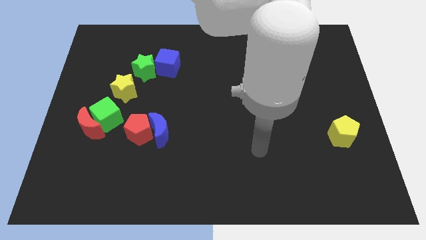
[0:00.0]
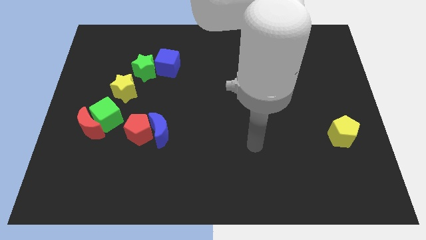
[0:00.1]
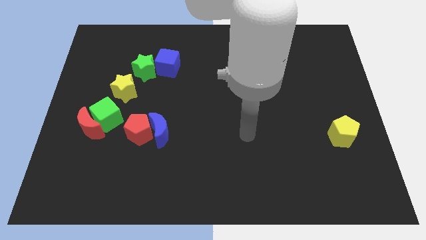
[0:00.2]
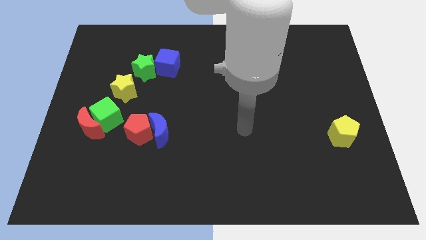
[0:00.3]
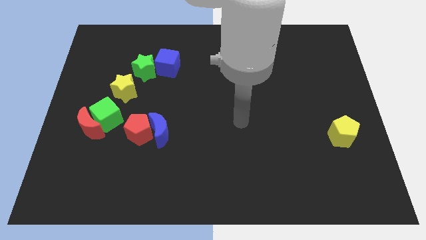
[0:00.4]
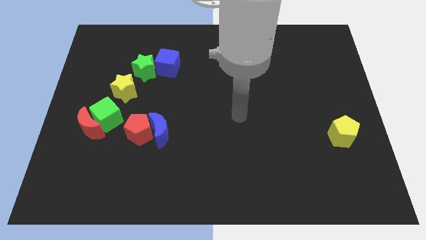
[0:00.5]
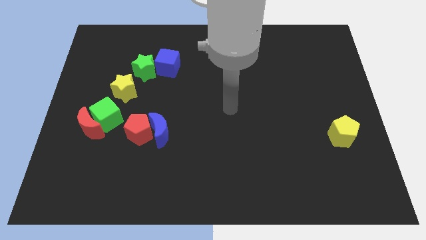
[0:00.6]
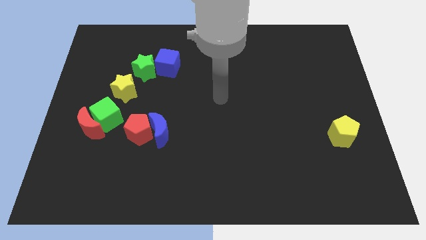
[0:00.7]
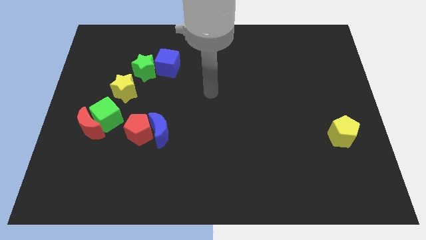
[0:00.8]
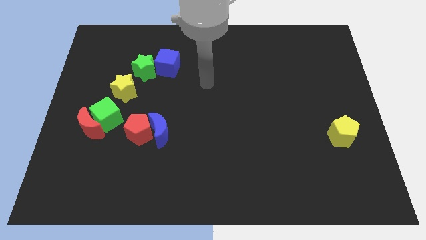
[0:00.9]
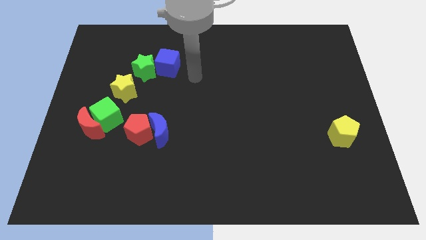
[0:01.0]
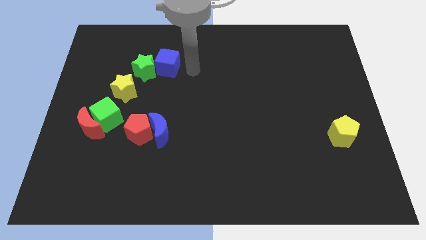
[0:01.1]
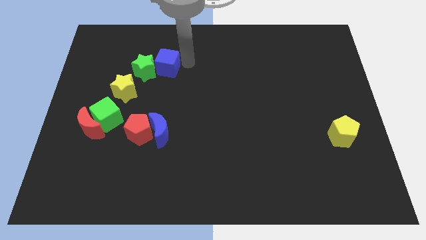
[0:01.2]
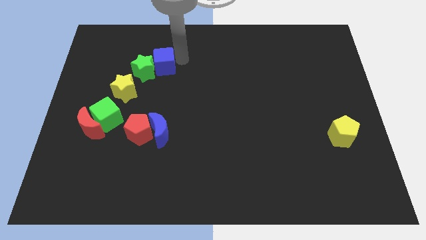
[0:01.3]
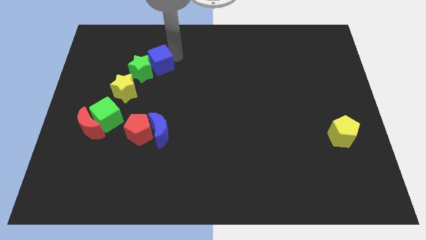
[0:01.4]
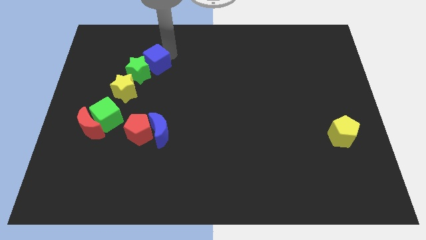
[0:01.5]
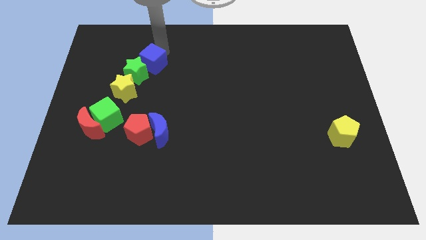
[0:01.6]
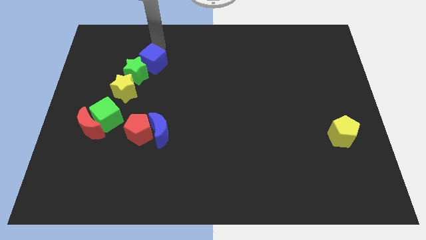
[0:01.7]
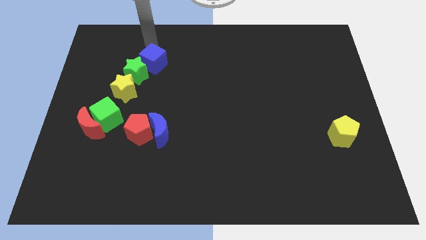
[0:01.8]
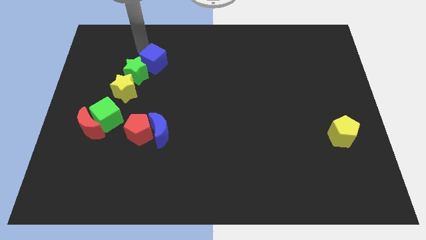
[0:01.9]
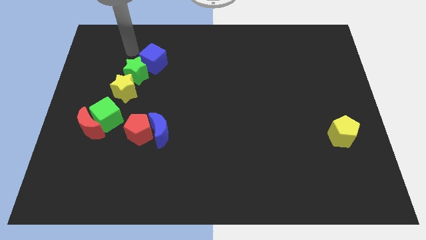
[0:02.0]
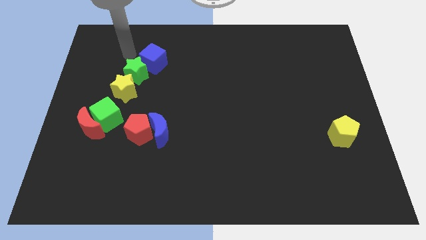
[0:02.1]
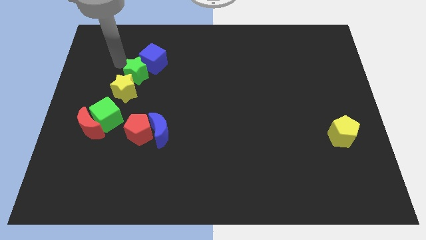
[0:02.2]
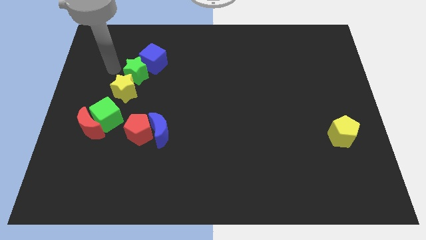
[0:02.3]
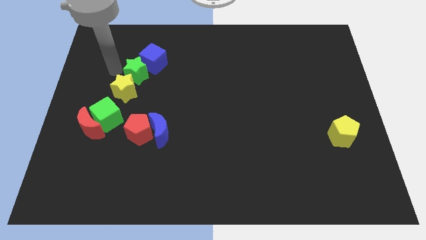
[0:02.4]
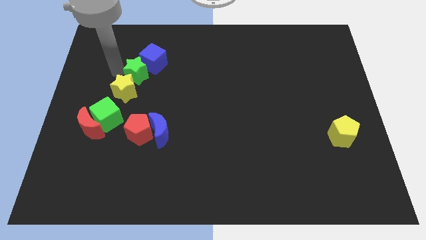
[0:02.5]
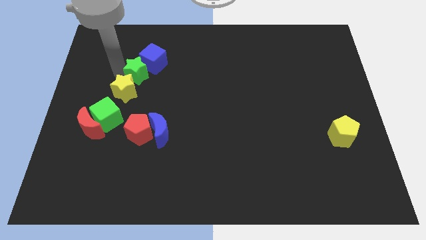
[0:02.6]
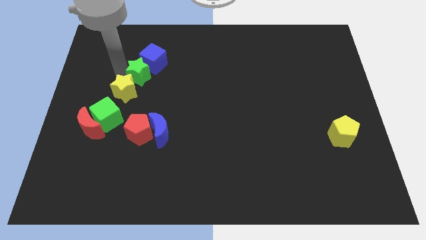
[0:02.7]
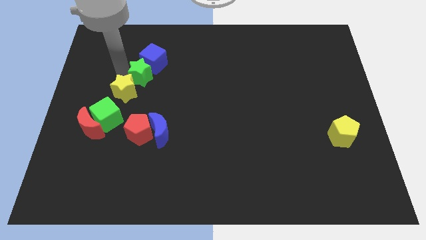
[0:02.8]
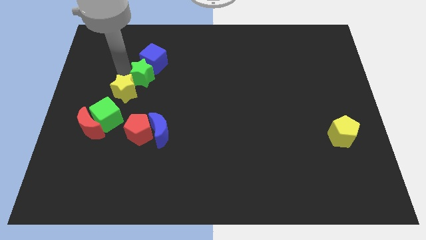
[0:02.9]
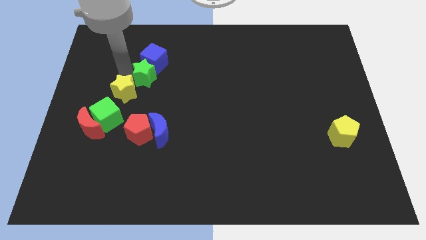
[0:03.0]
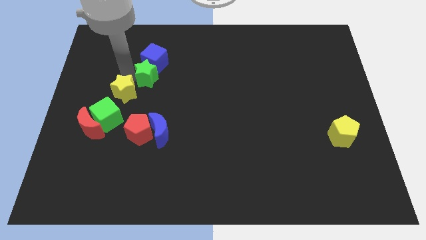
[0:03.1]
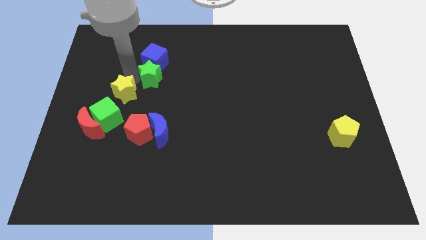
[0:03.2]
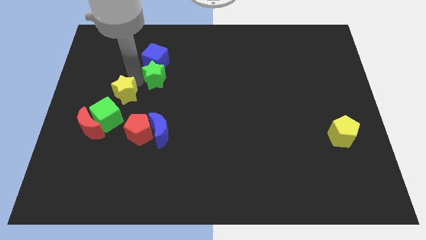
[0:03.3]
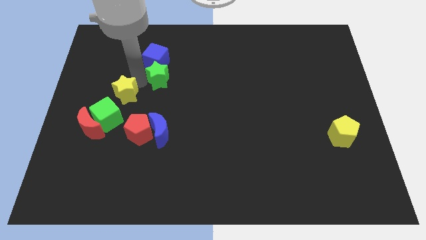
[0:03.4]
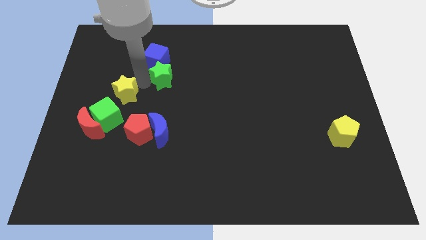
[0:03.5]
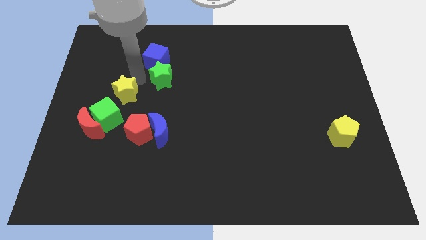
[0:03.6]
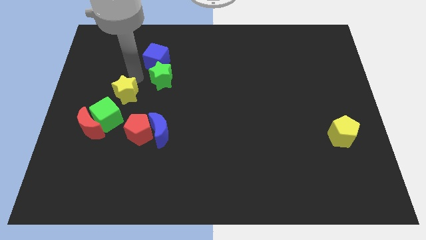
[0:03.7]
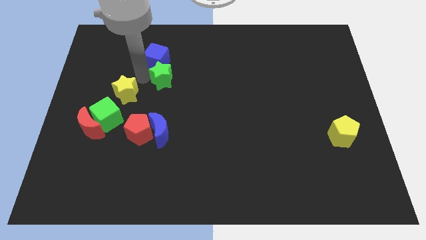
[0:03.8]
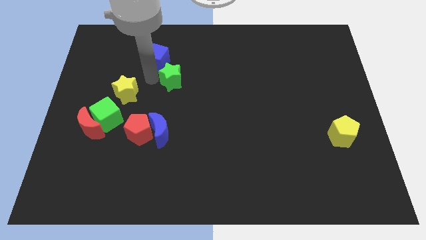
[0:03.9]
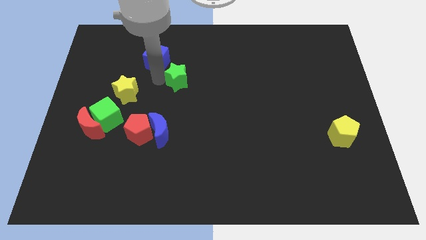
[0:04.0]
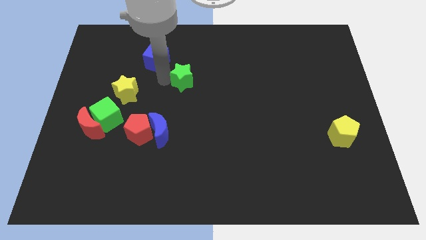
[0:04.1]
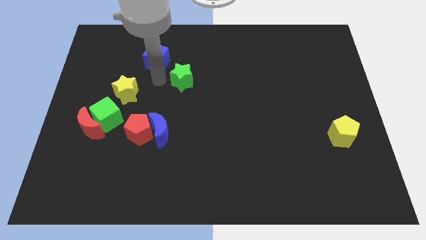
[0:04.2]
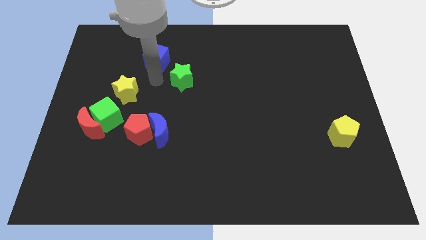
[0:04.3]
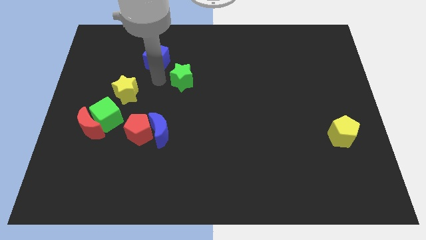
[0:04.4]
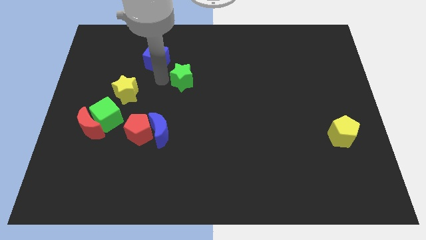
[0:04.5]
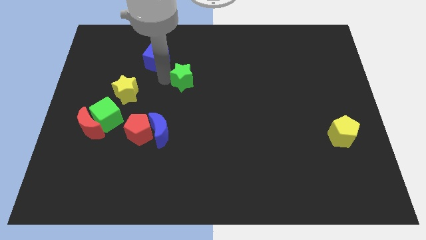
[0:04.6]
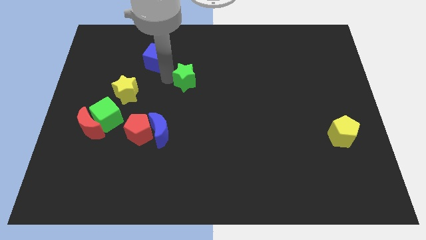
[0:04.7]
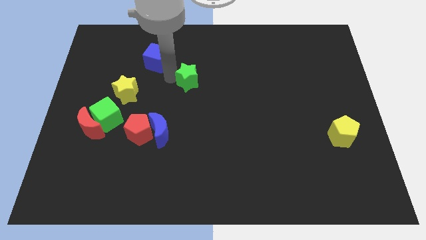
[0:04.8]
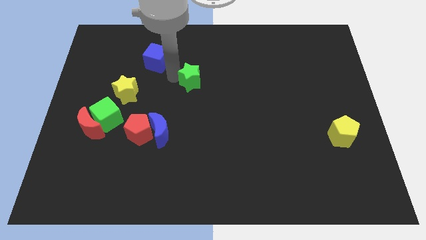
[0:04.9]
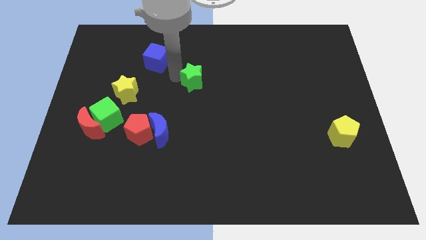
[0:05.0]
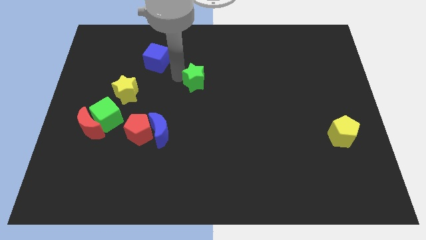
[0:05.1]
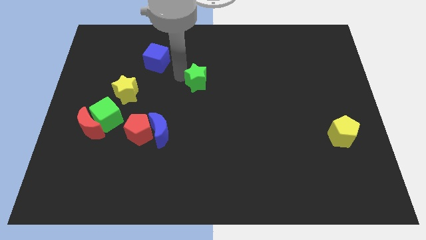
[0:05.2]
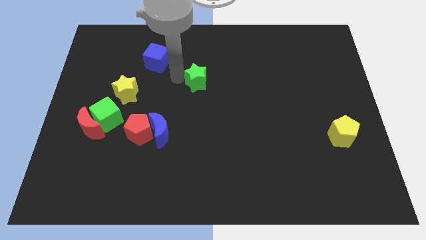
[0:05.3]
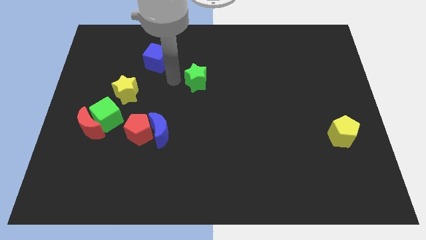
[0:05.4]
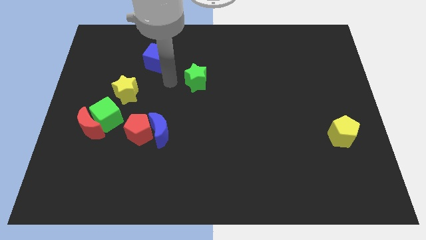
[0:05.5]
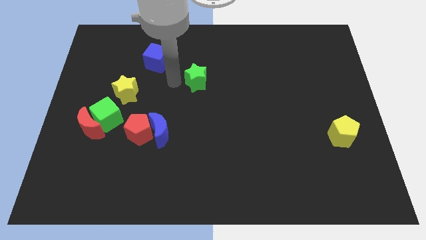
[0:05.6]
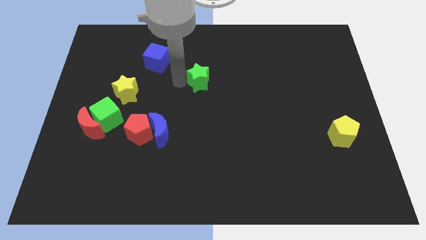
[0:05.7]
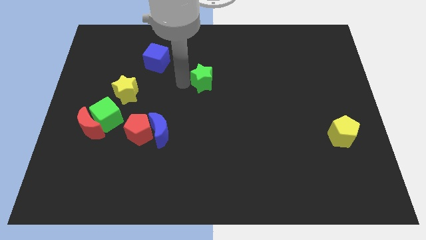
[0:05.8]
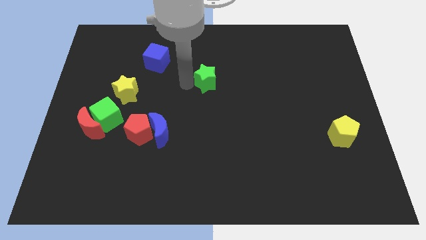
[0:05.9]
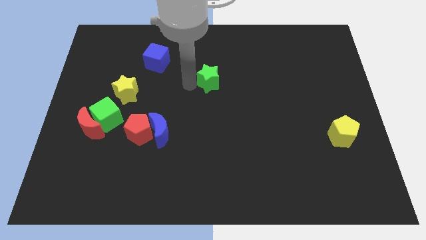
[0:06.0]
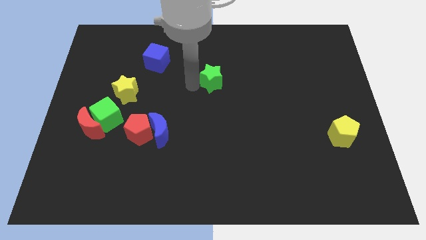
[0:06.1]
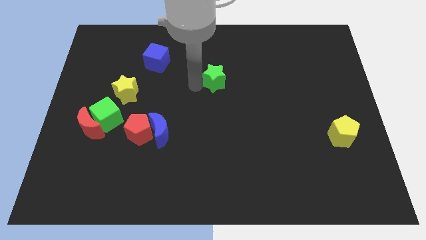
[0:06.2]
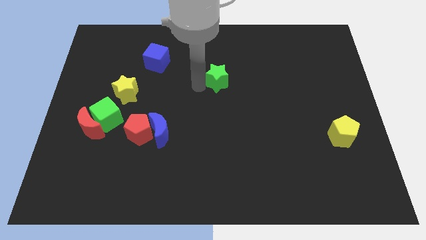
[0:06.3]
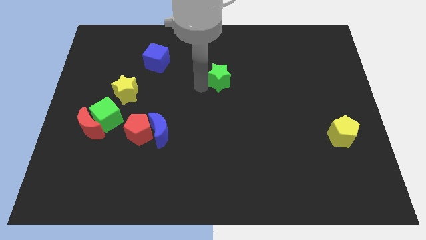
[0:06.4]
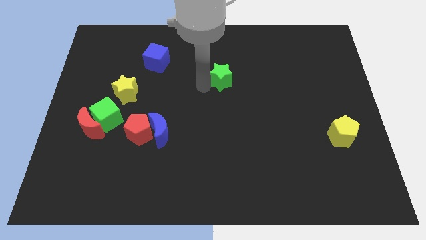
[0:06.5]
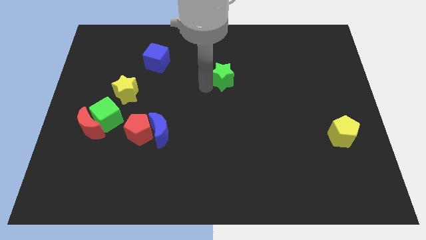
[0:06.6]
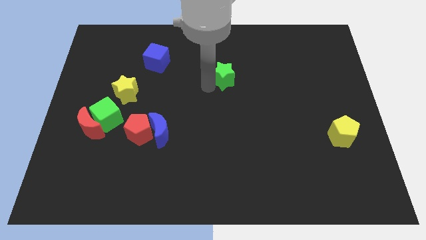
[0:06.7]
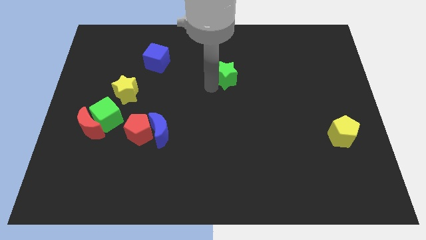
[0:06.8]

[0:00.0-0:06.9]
slide the green star right

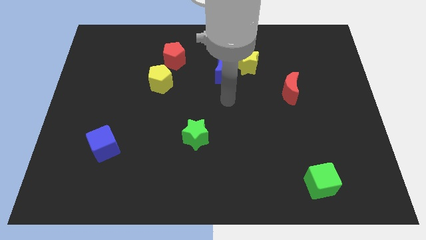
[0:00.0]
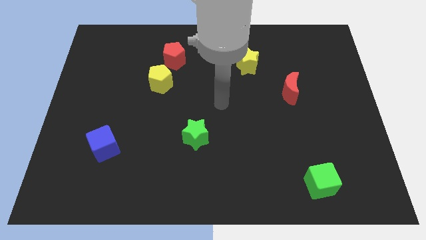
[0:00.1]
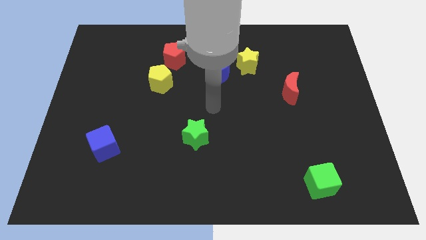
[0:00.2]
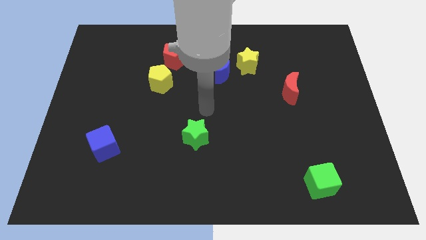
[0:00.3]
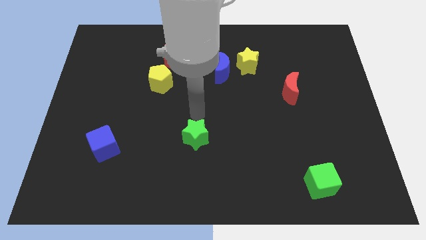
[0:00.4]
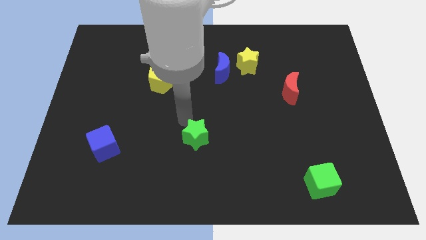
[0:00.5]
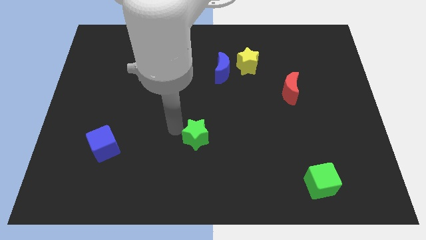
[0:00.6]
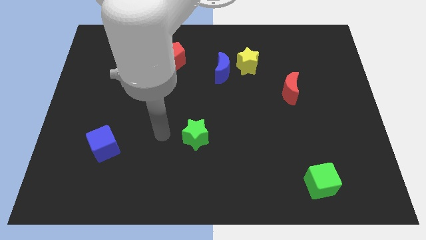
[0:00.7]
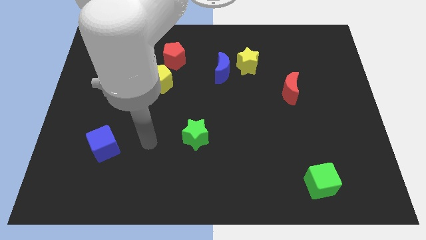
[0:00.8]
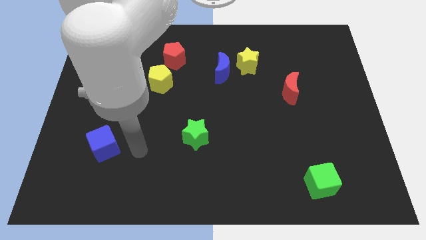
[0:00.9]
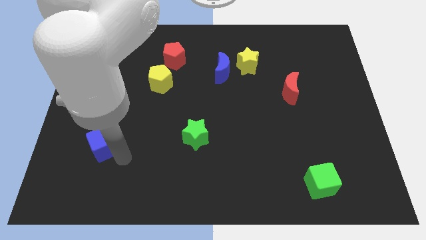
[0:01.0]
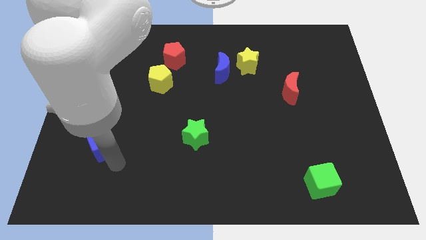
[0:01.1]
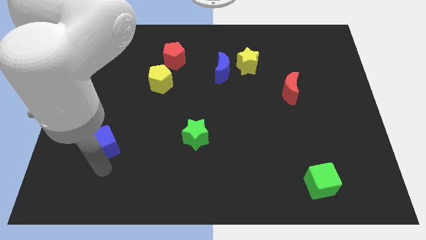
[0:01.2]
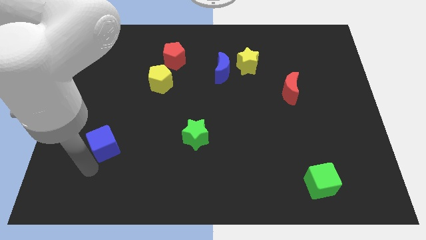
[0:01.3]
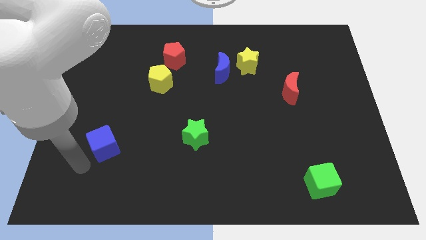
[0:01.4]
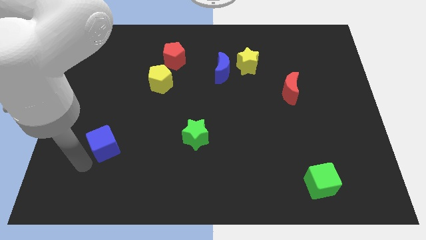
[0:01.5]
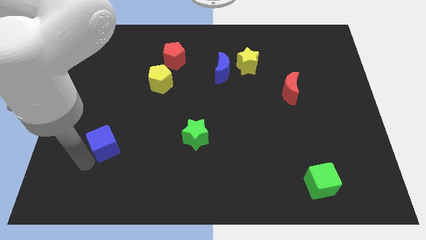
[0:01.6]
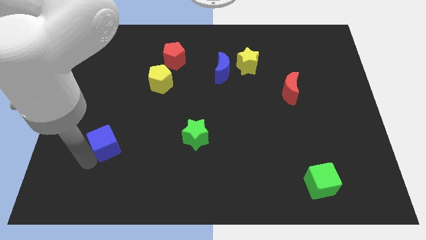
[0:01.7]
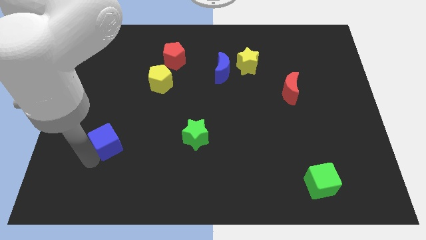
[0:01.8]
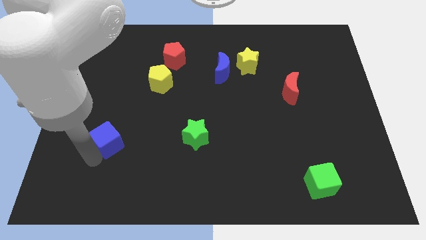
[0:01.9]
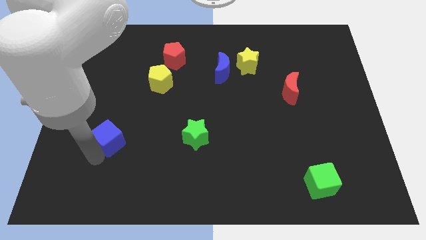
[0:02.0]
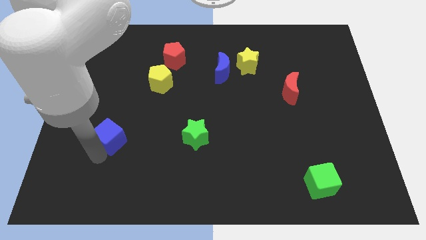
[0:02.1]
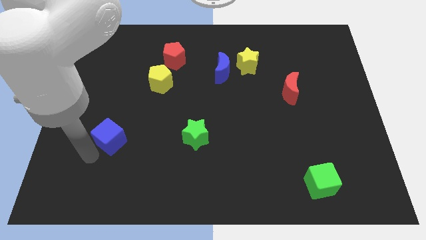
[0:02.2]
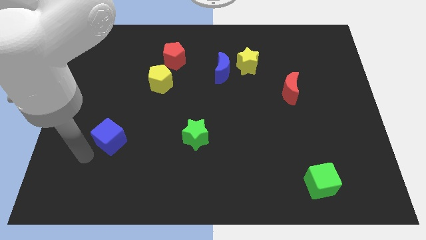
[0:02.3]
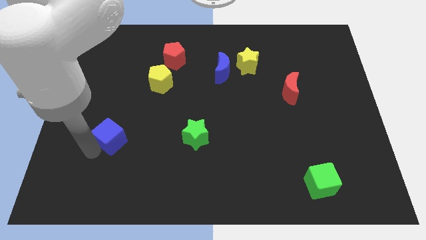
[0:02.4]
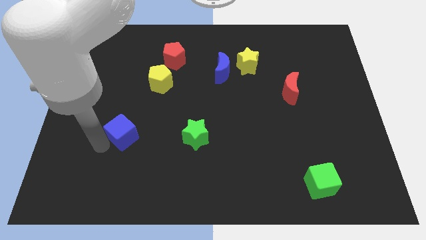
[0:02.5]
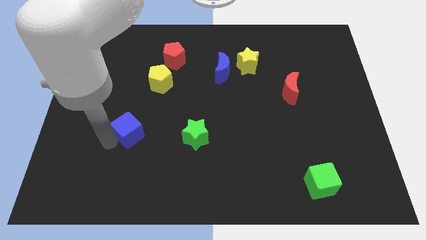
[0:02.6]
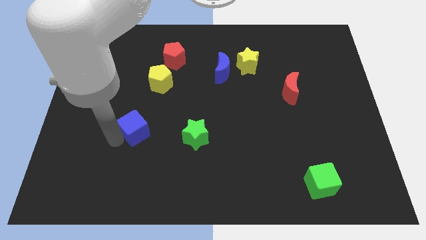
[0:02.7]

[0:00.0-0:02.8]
slide the blue cube a little upwards and then to the right
